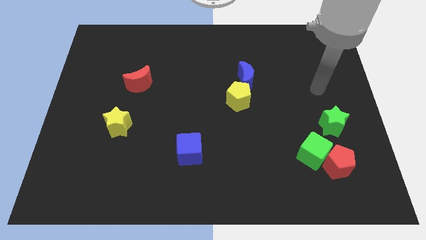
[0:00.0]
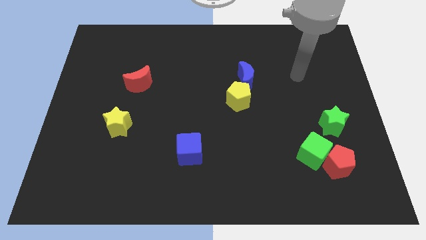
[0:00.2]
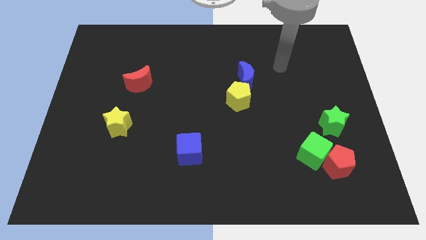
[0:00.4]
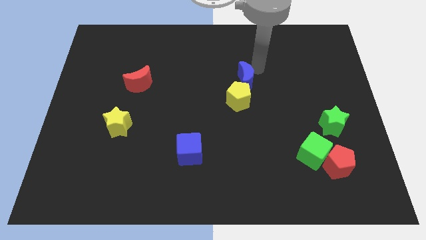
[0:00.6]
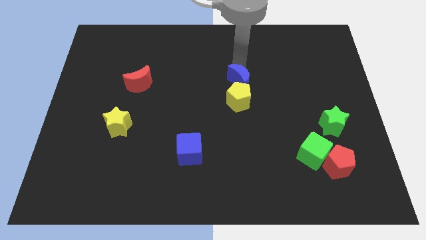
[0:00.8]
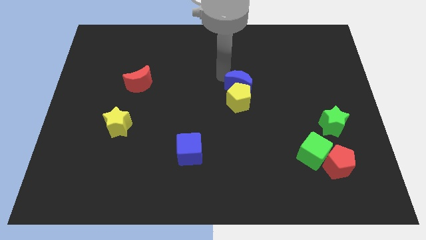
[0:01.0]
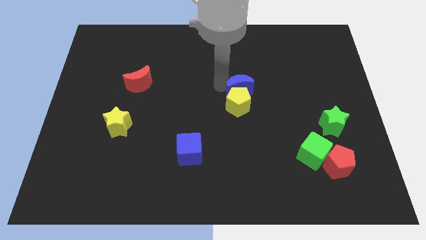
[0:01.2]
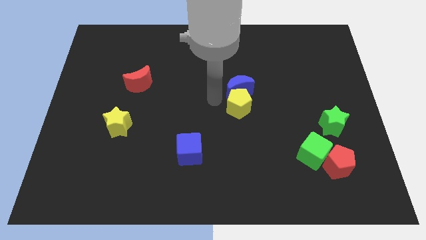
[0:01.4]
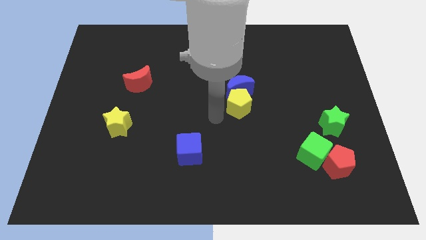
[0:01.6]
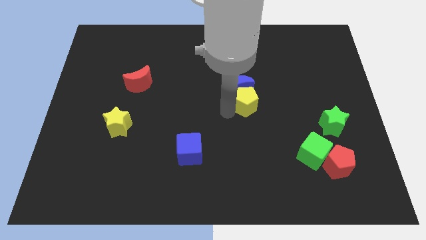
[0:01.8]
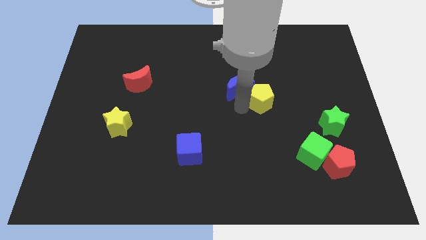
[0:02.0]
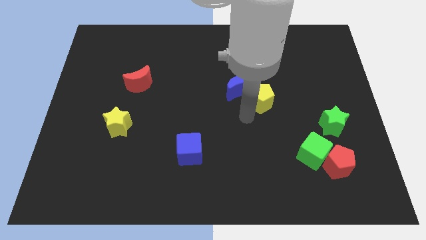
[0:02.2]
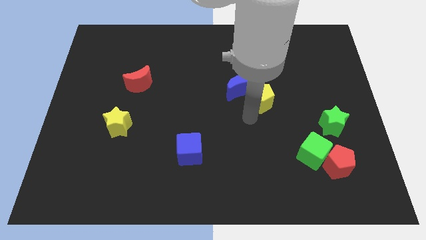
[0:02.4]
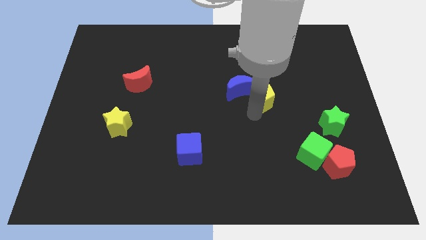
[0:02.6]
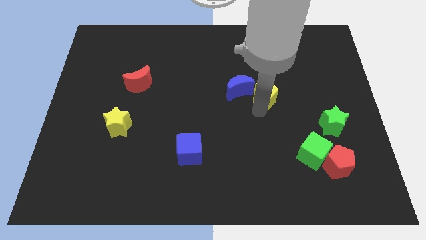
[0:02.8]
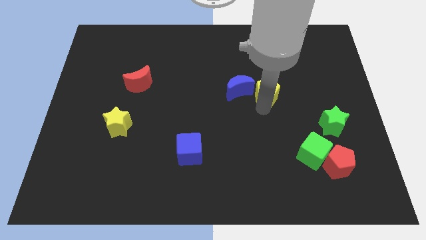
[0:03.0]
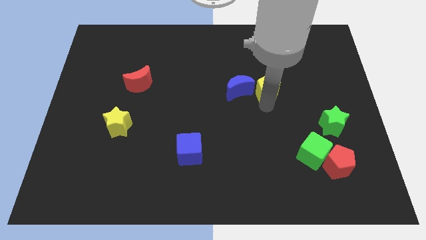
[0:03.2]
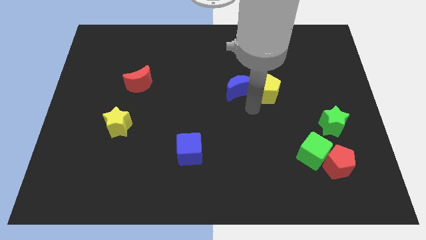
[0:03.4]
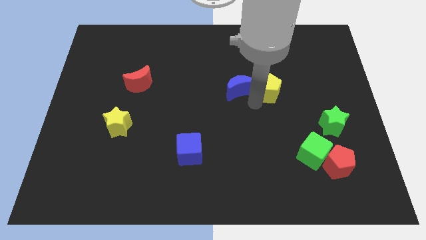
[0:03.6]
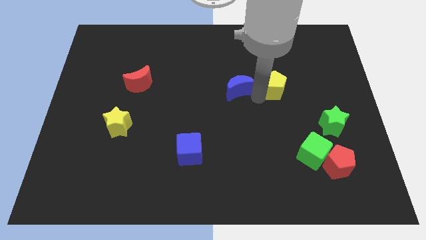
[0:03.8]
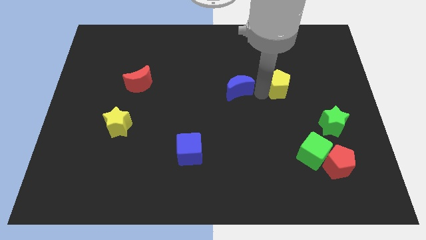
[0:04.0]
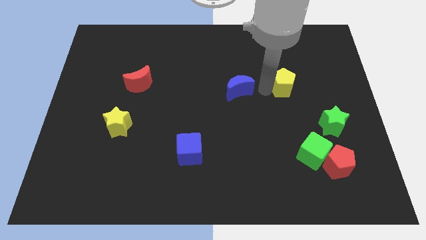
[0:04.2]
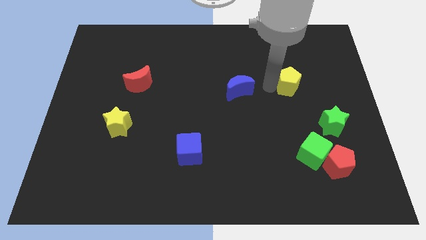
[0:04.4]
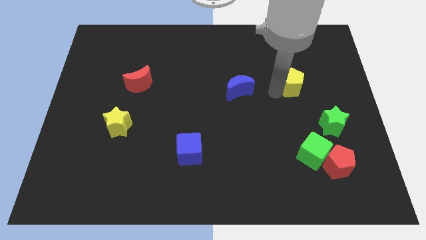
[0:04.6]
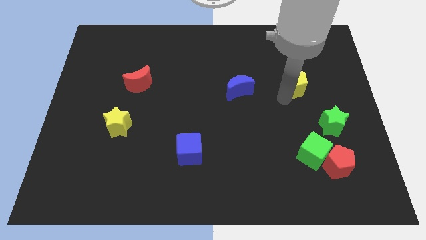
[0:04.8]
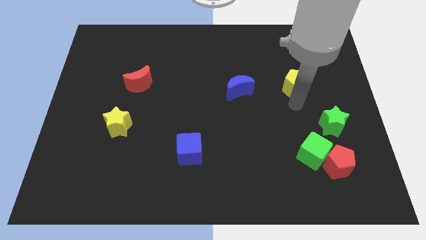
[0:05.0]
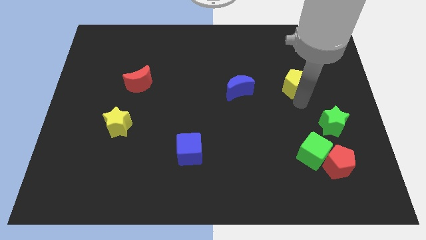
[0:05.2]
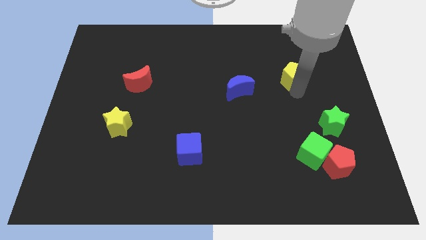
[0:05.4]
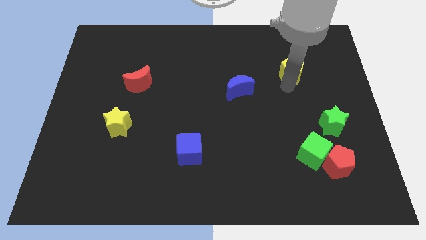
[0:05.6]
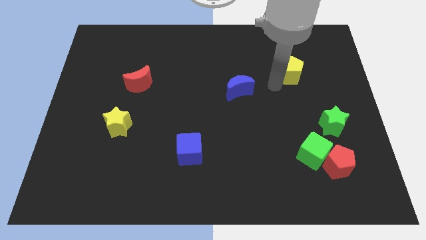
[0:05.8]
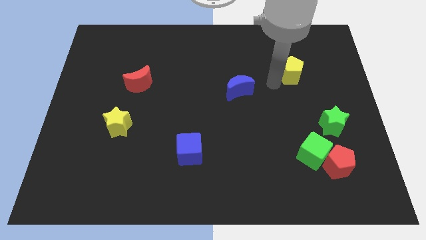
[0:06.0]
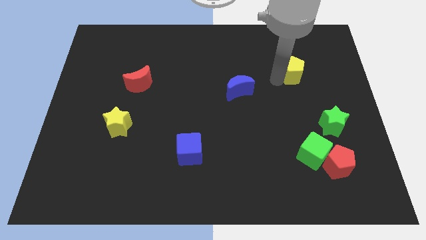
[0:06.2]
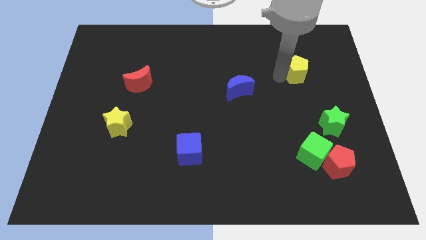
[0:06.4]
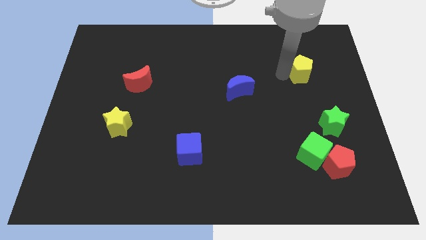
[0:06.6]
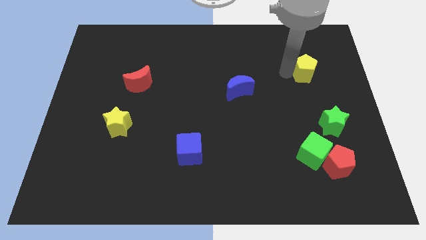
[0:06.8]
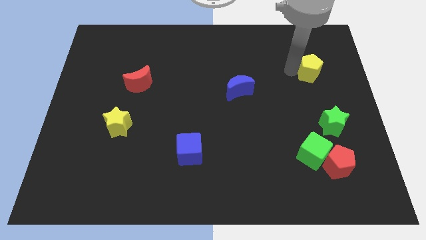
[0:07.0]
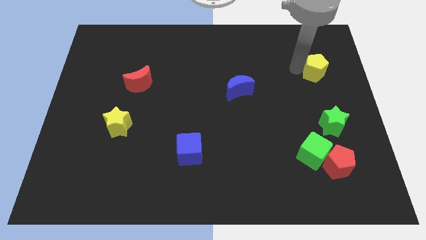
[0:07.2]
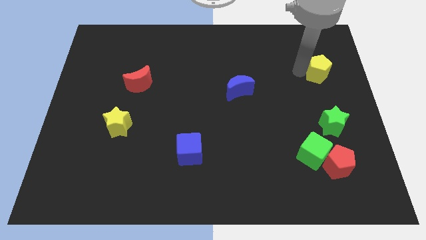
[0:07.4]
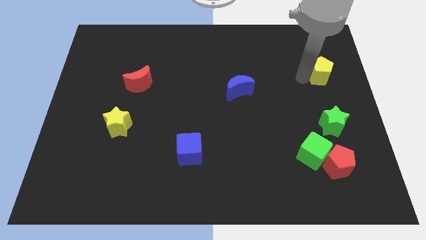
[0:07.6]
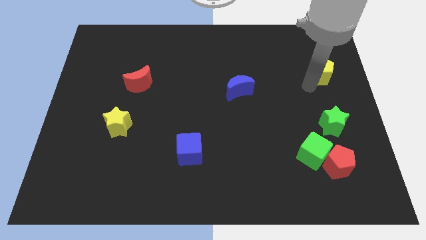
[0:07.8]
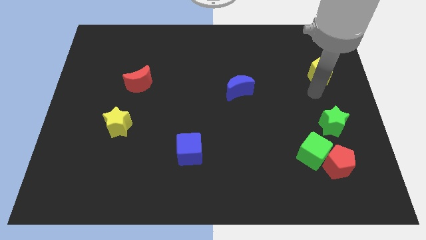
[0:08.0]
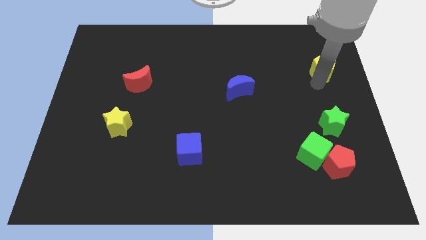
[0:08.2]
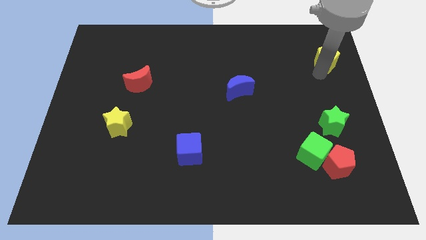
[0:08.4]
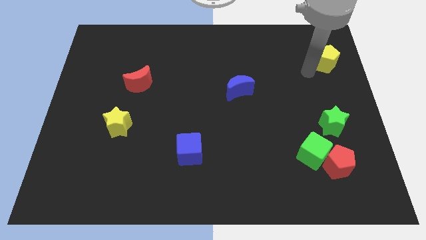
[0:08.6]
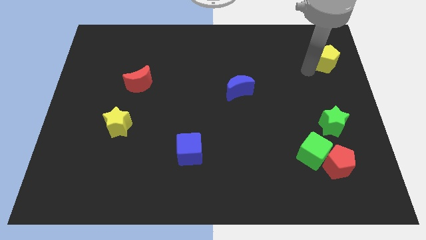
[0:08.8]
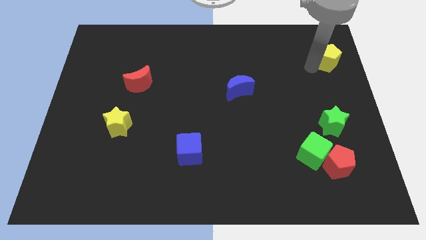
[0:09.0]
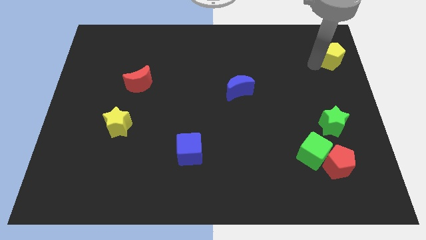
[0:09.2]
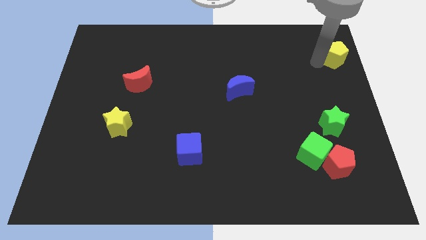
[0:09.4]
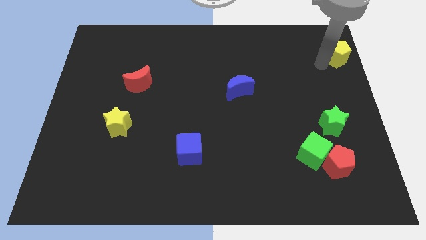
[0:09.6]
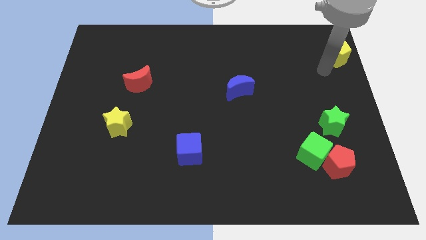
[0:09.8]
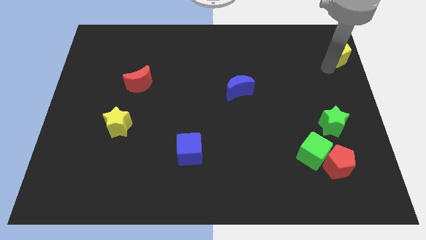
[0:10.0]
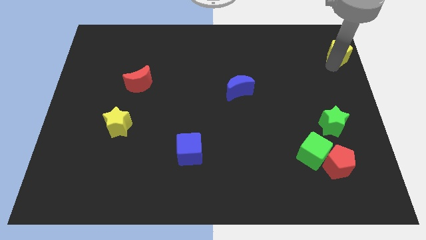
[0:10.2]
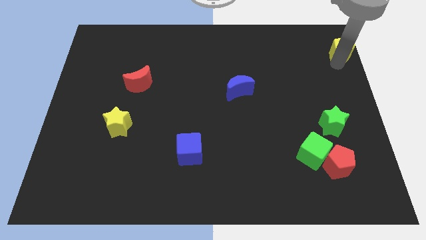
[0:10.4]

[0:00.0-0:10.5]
push the yellow pentagon to the top right of the board

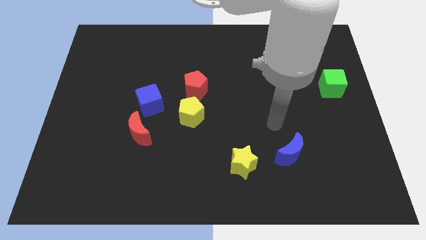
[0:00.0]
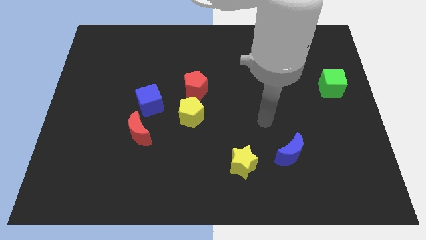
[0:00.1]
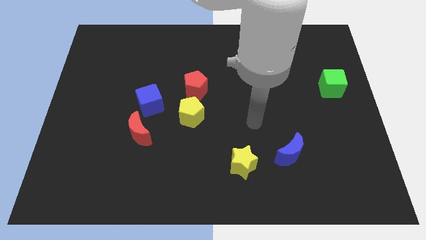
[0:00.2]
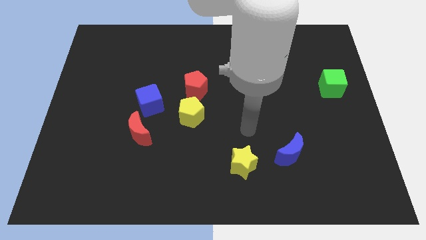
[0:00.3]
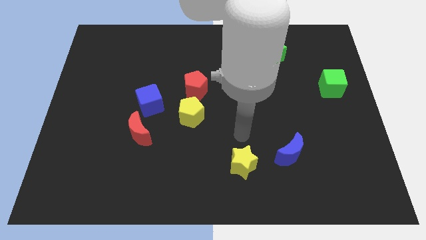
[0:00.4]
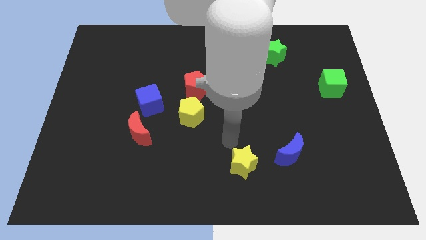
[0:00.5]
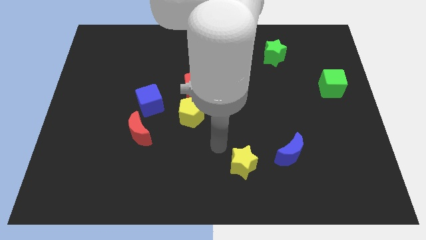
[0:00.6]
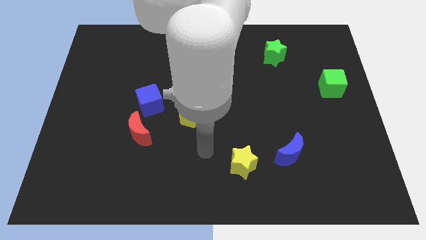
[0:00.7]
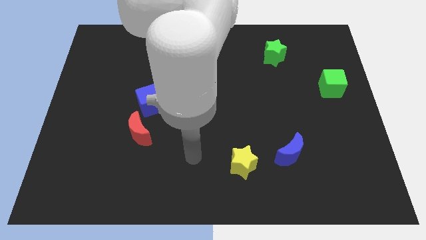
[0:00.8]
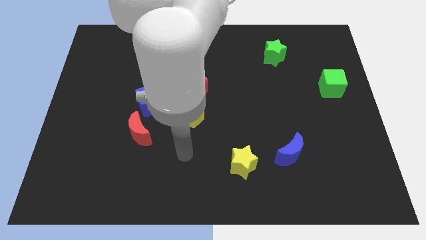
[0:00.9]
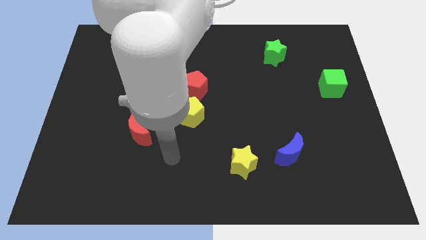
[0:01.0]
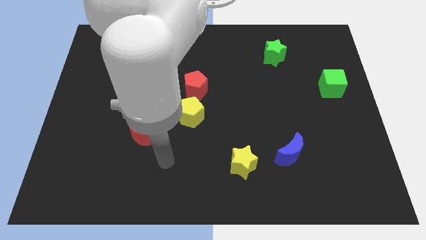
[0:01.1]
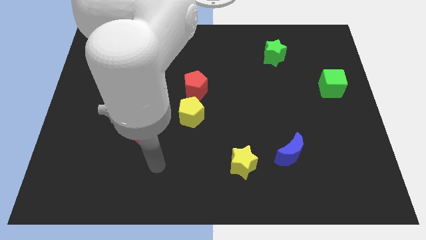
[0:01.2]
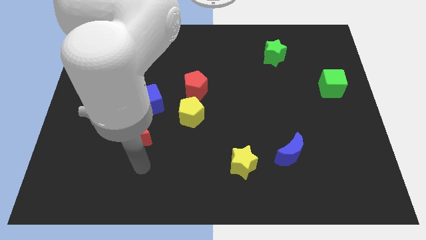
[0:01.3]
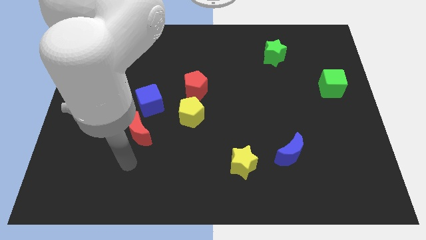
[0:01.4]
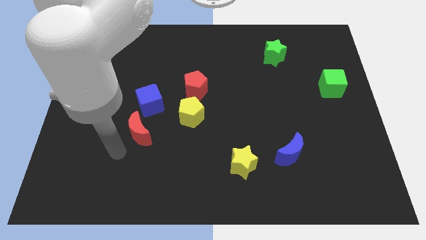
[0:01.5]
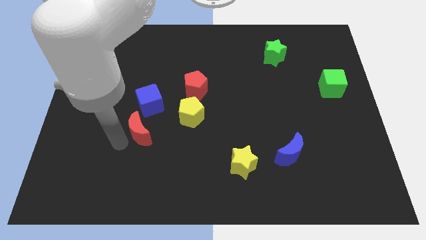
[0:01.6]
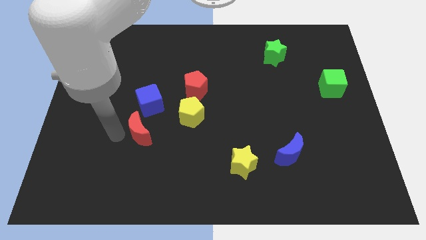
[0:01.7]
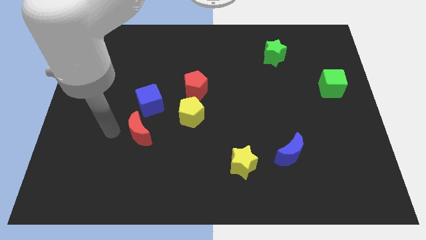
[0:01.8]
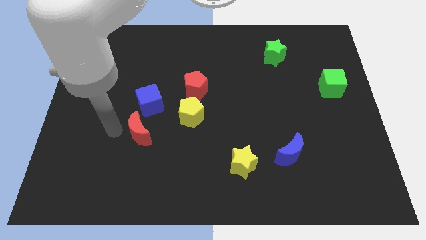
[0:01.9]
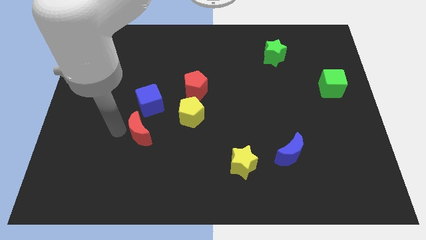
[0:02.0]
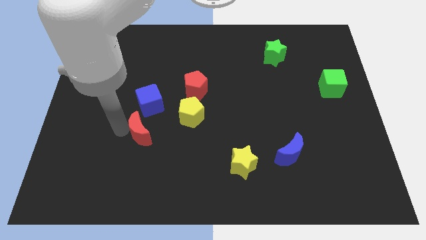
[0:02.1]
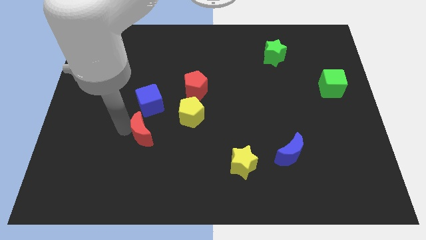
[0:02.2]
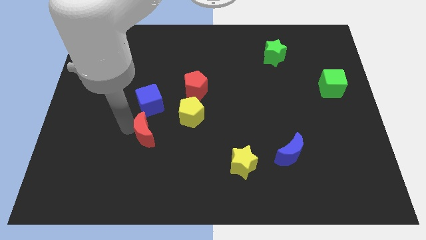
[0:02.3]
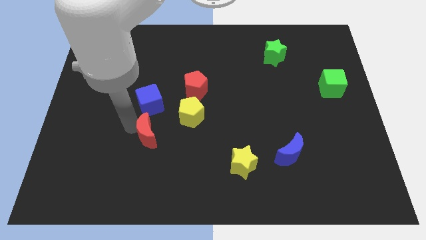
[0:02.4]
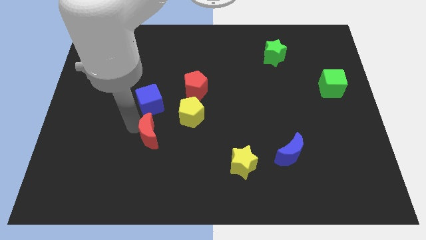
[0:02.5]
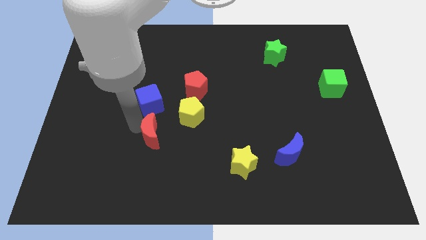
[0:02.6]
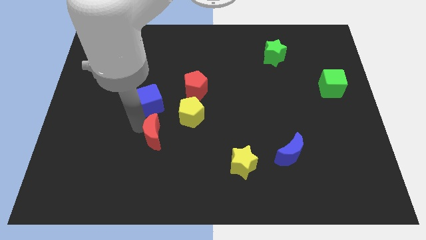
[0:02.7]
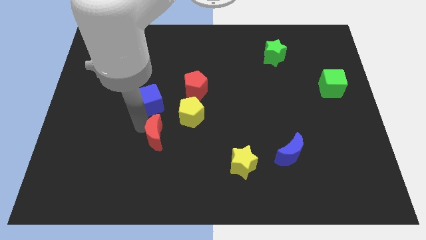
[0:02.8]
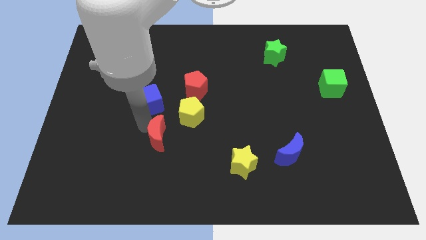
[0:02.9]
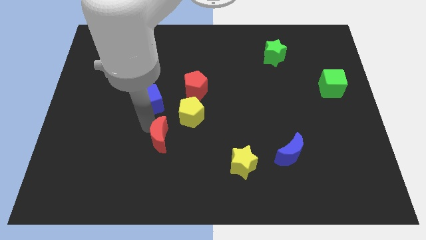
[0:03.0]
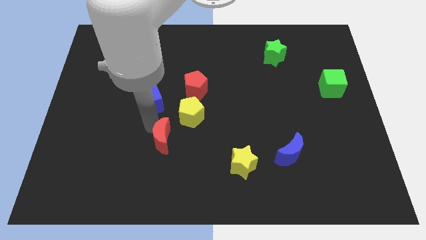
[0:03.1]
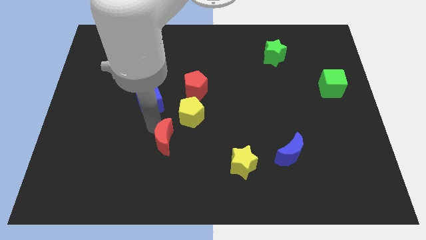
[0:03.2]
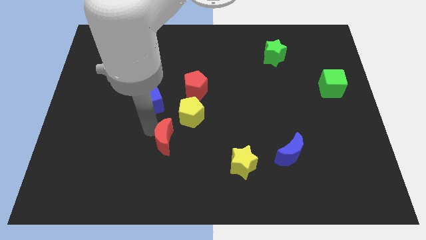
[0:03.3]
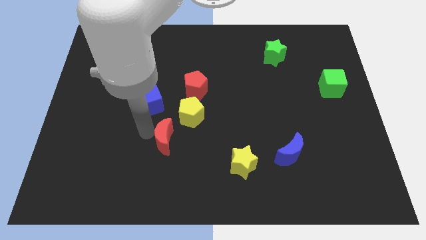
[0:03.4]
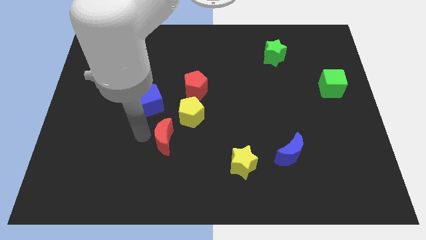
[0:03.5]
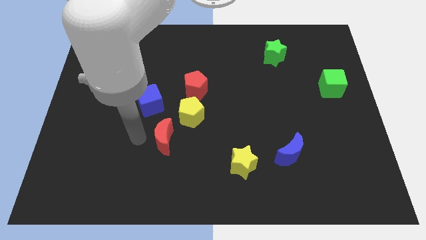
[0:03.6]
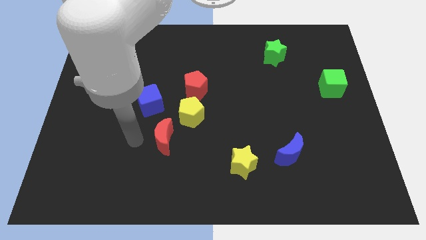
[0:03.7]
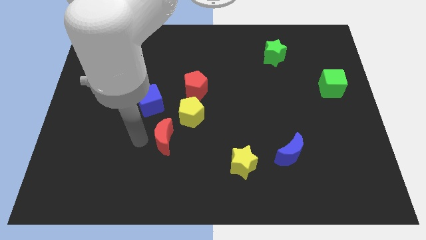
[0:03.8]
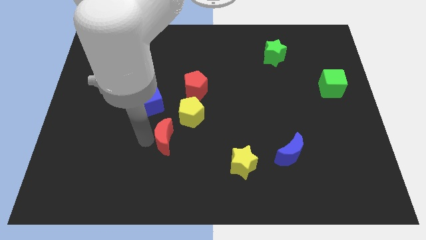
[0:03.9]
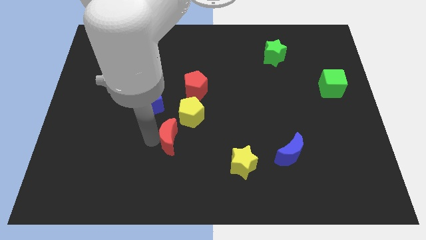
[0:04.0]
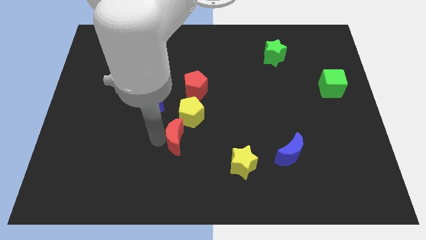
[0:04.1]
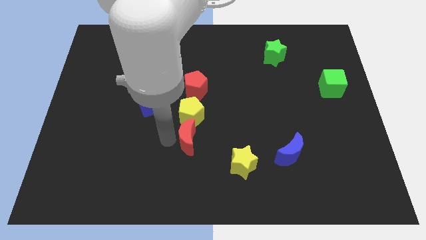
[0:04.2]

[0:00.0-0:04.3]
move the red moon to the center
